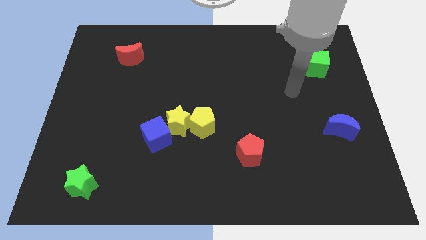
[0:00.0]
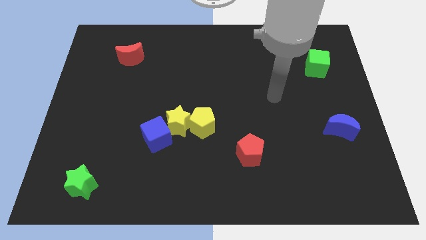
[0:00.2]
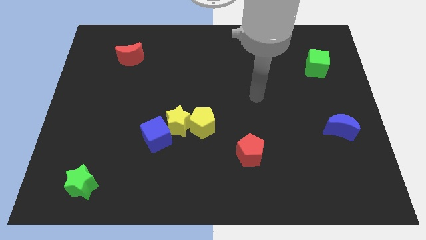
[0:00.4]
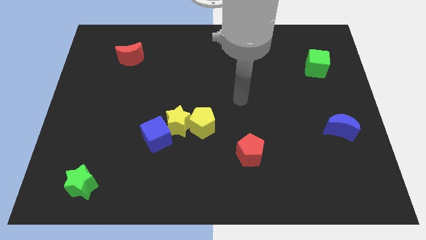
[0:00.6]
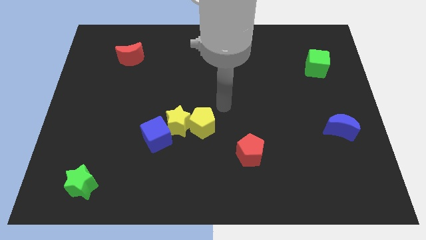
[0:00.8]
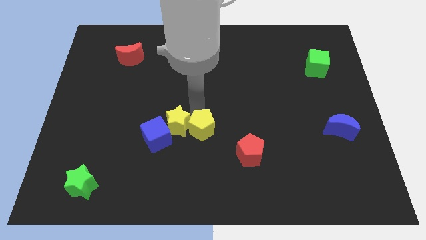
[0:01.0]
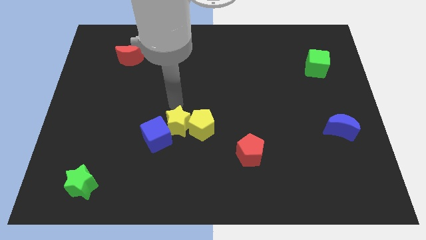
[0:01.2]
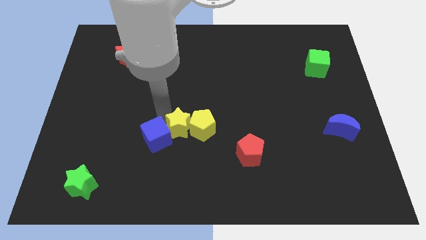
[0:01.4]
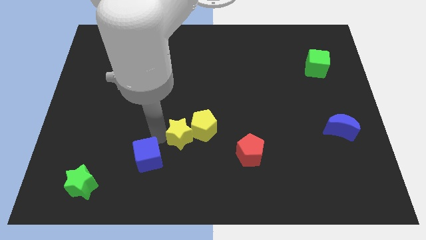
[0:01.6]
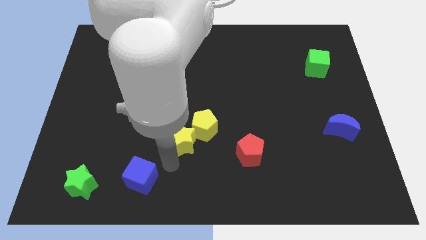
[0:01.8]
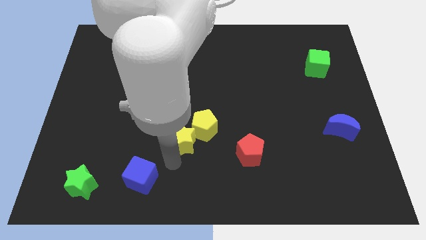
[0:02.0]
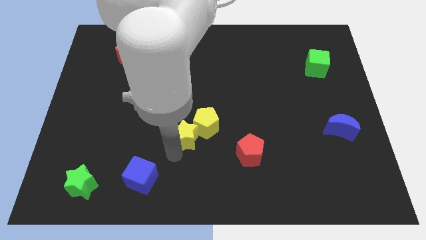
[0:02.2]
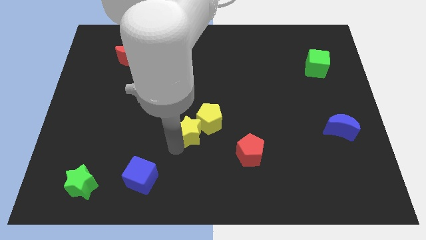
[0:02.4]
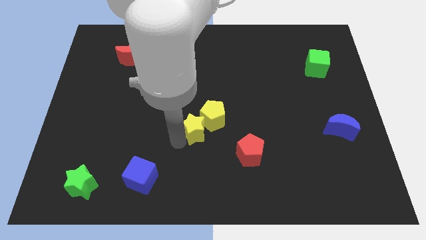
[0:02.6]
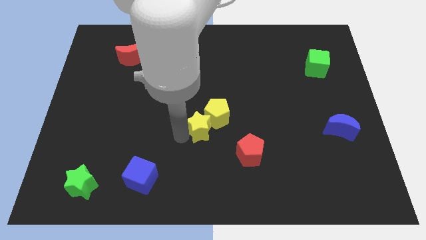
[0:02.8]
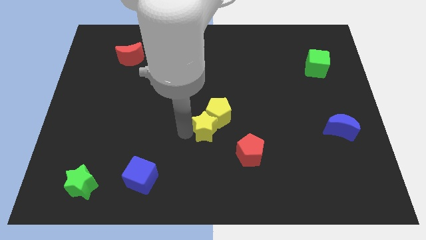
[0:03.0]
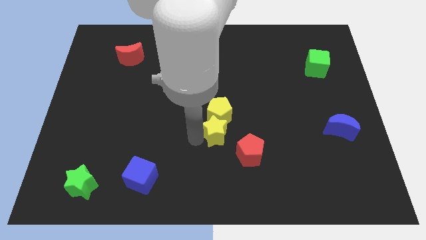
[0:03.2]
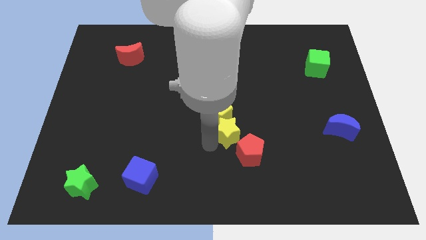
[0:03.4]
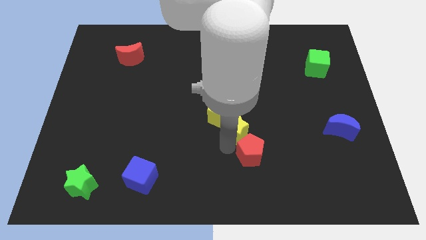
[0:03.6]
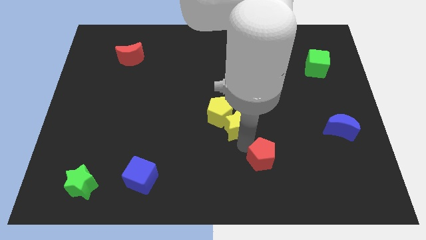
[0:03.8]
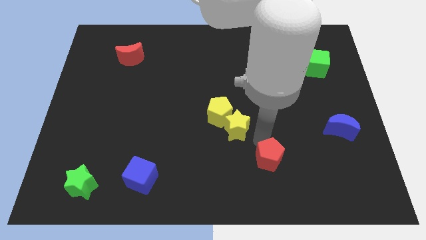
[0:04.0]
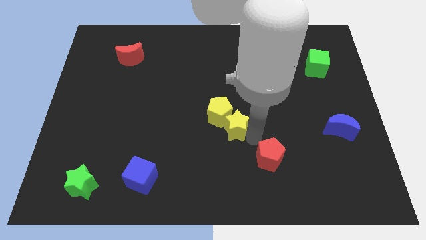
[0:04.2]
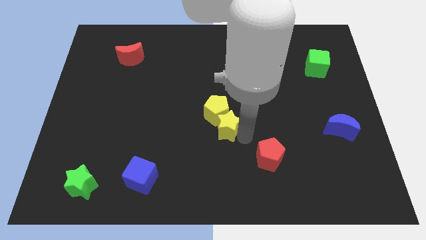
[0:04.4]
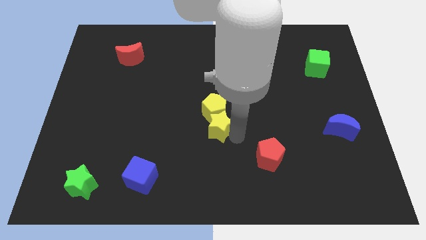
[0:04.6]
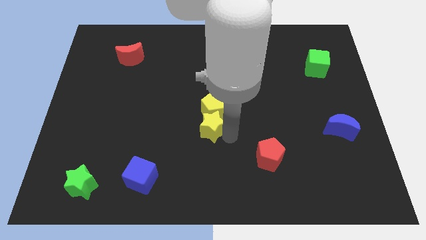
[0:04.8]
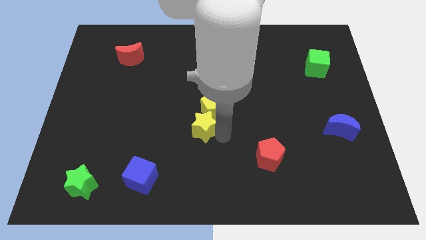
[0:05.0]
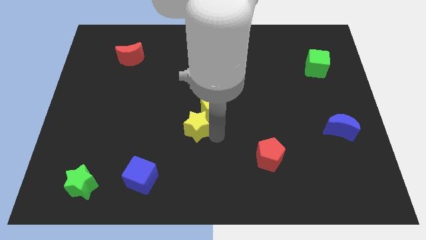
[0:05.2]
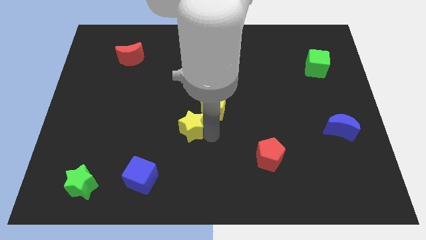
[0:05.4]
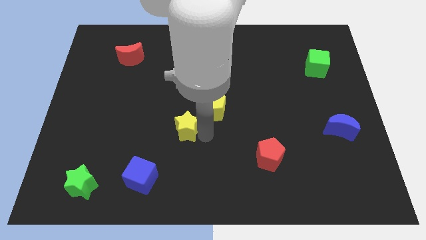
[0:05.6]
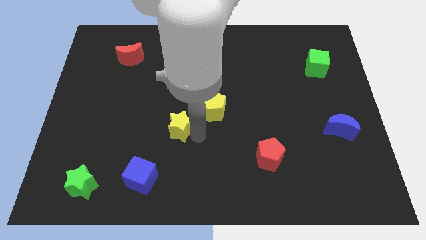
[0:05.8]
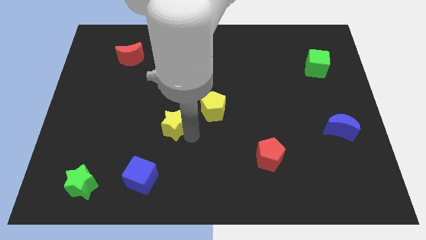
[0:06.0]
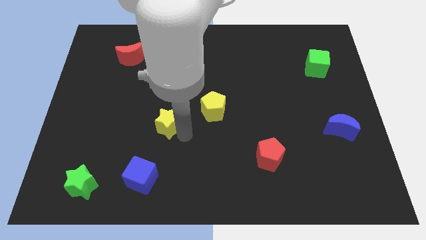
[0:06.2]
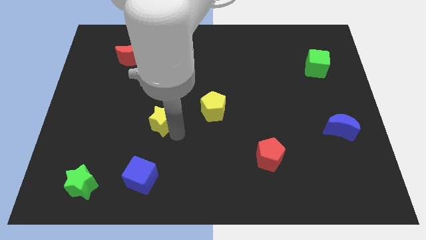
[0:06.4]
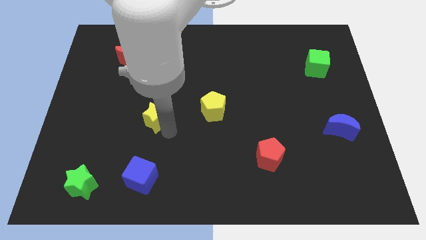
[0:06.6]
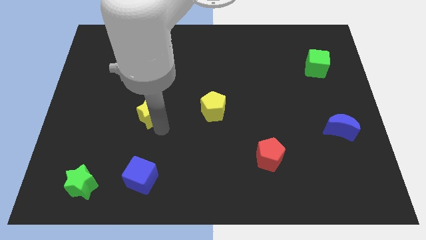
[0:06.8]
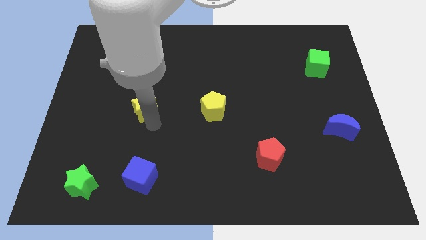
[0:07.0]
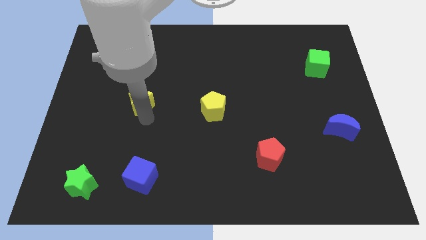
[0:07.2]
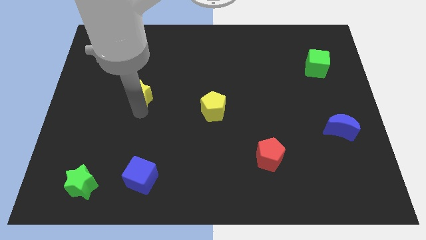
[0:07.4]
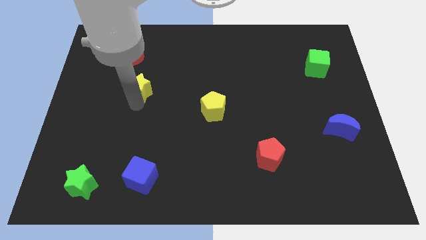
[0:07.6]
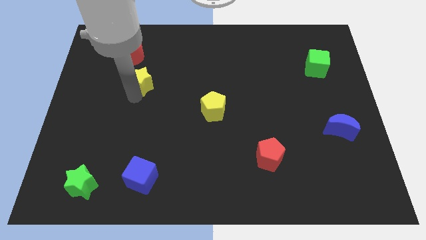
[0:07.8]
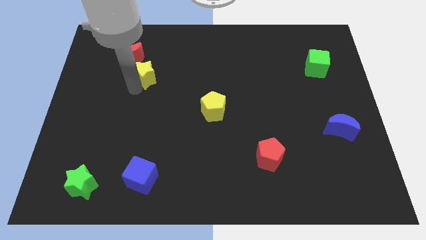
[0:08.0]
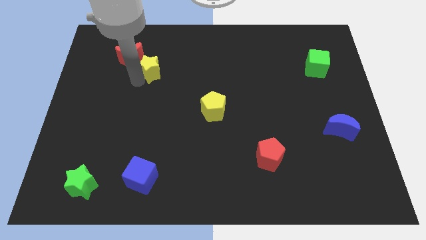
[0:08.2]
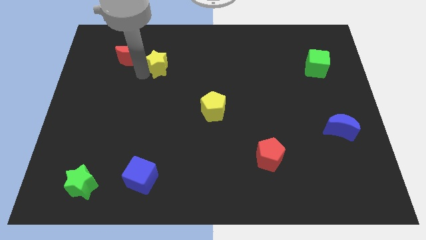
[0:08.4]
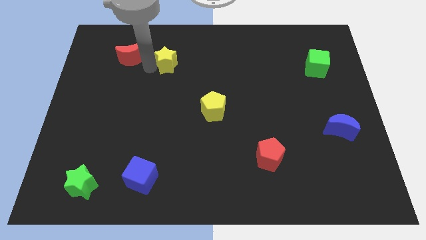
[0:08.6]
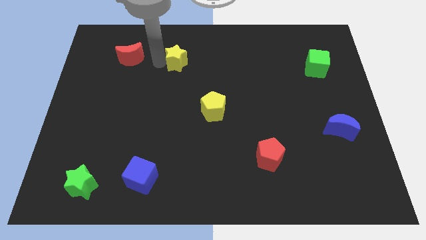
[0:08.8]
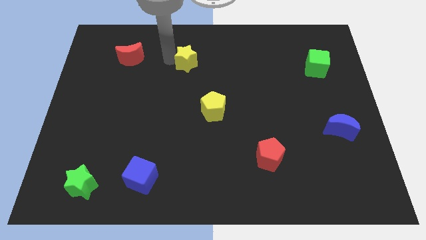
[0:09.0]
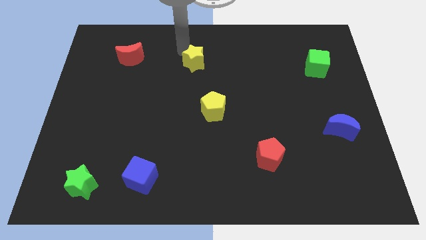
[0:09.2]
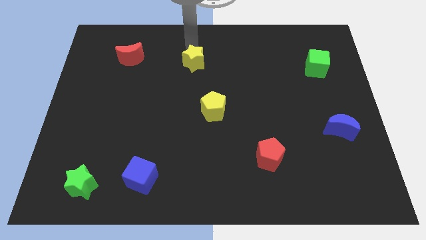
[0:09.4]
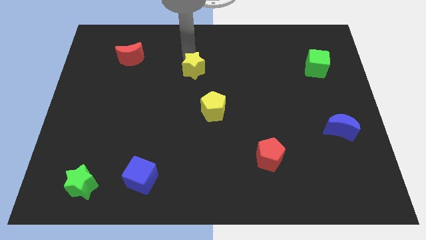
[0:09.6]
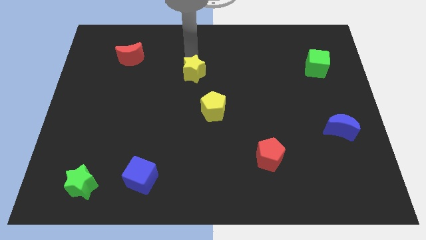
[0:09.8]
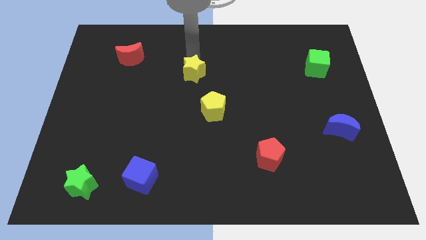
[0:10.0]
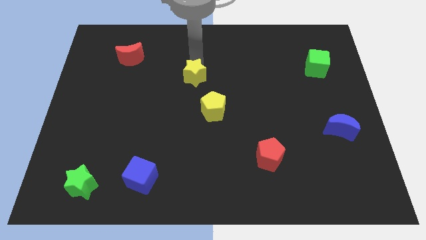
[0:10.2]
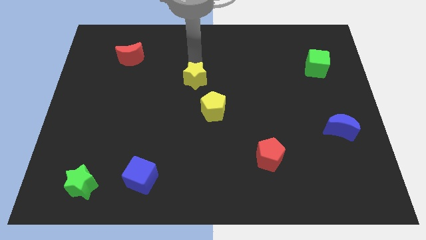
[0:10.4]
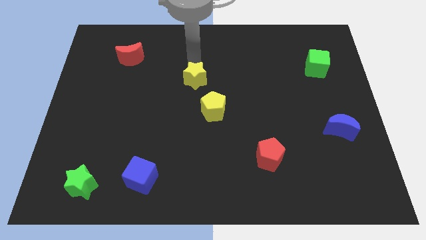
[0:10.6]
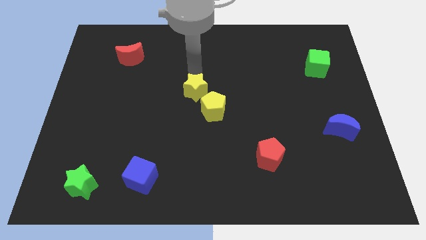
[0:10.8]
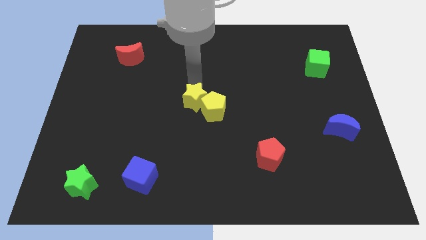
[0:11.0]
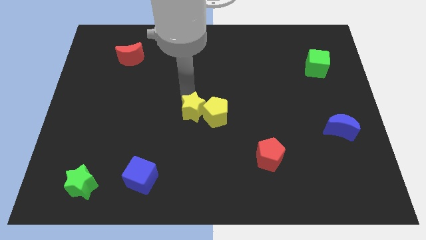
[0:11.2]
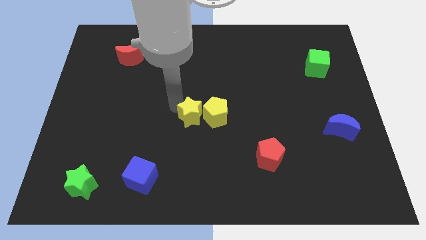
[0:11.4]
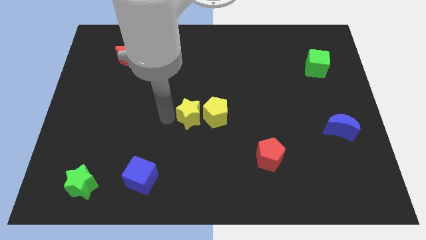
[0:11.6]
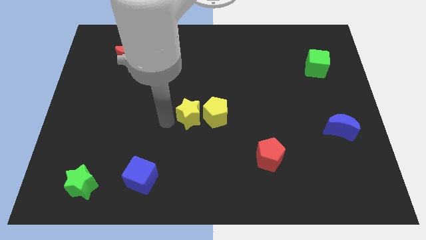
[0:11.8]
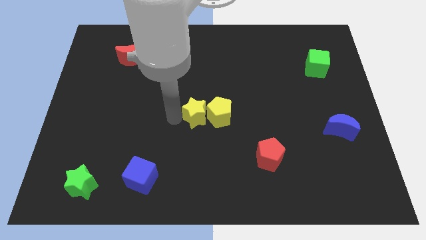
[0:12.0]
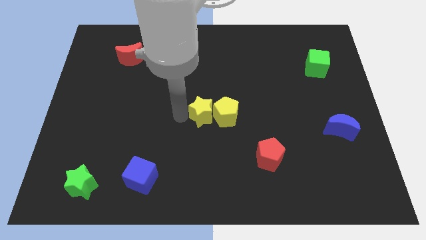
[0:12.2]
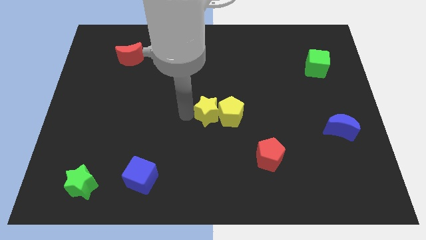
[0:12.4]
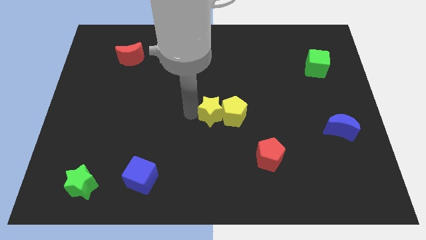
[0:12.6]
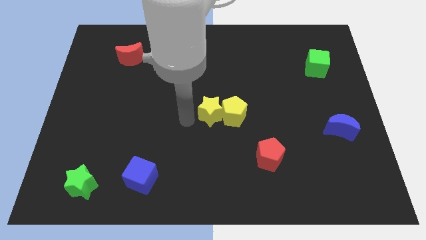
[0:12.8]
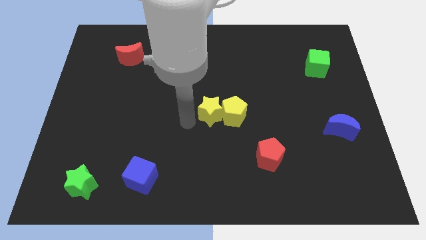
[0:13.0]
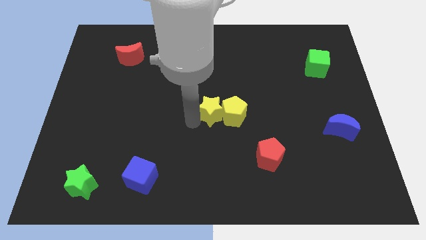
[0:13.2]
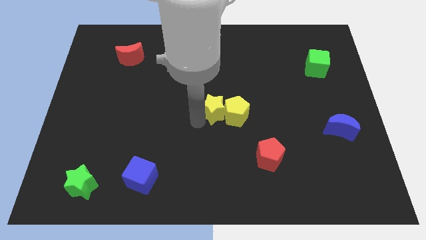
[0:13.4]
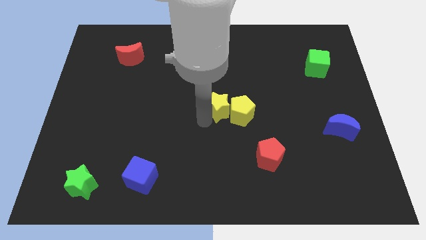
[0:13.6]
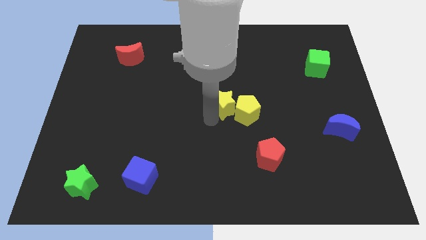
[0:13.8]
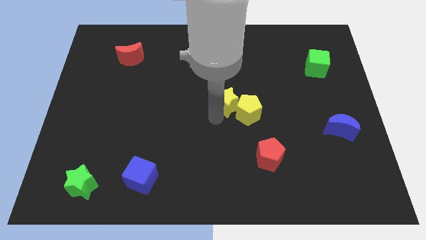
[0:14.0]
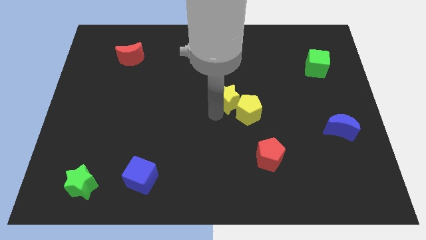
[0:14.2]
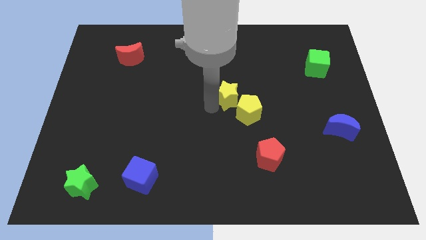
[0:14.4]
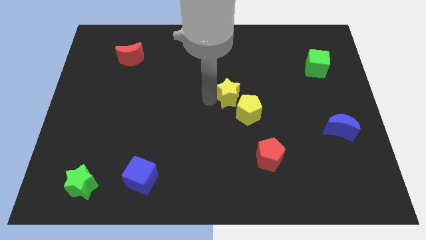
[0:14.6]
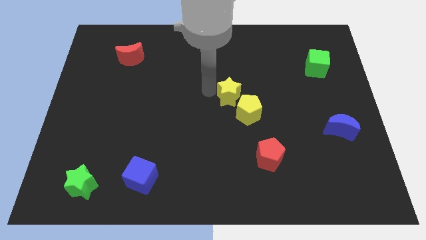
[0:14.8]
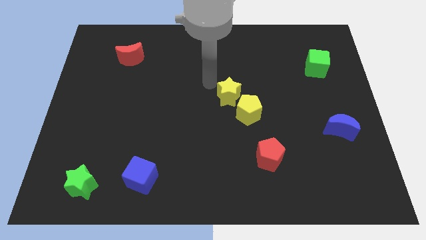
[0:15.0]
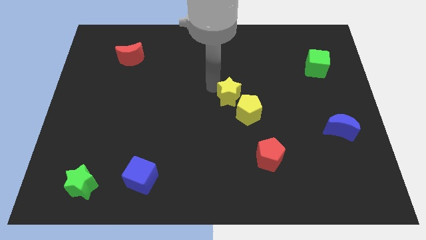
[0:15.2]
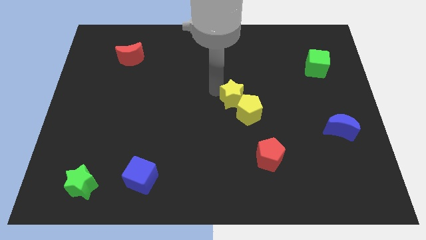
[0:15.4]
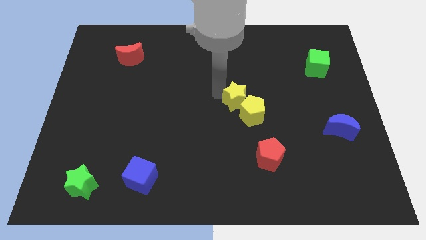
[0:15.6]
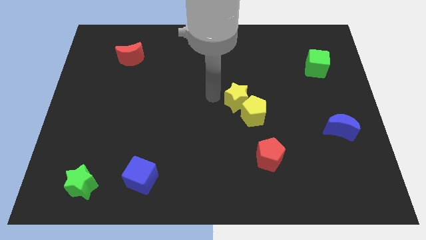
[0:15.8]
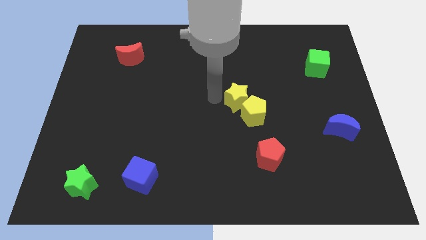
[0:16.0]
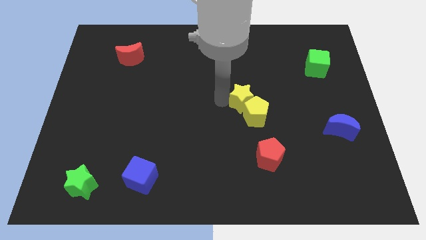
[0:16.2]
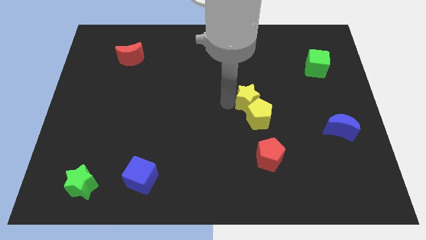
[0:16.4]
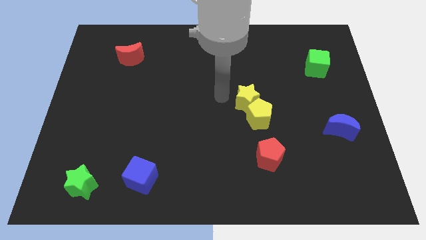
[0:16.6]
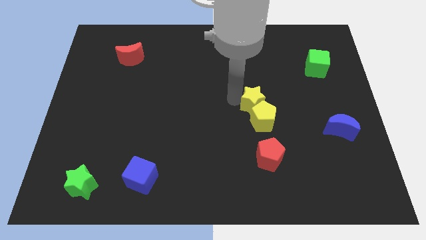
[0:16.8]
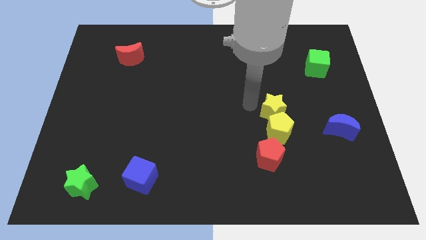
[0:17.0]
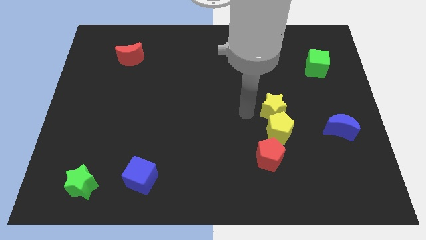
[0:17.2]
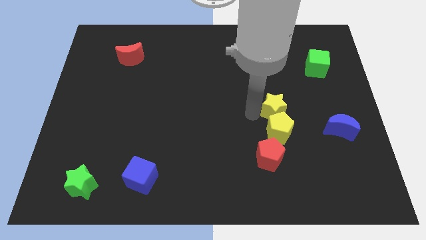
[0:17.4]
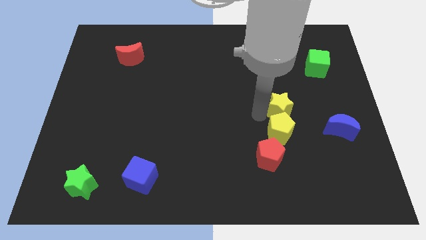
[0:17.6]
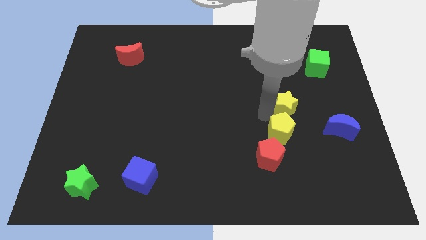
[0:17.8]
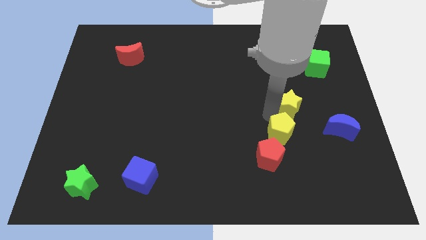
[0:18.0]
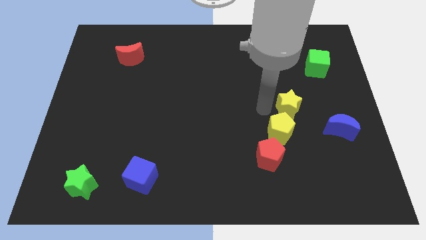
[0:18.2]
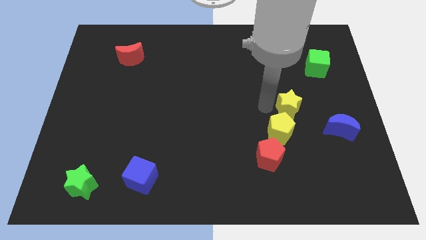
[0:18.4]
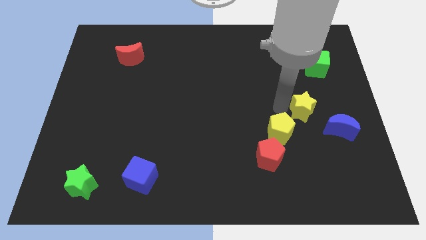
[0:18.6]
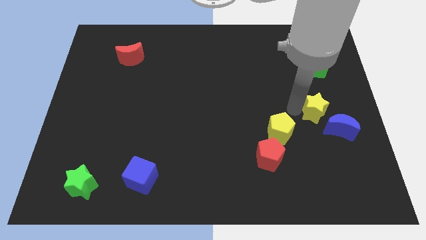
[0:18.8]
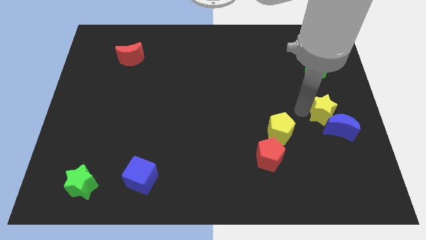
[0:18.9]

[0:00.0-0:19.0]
move the yellow star to the center right
